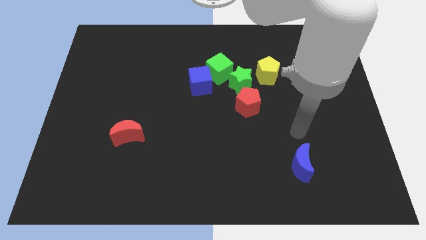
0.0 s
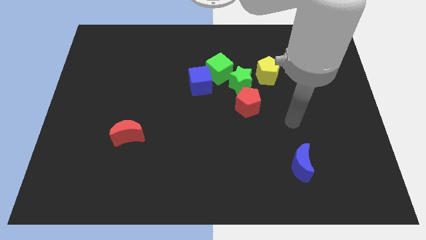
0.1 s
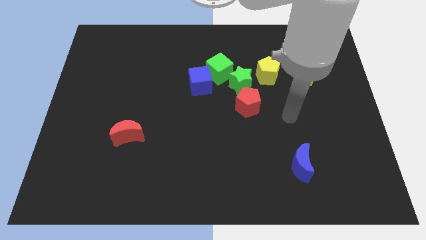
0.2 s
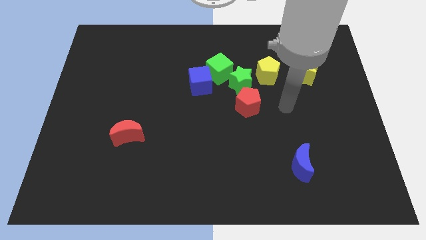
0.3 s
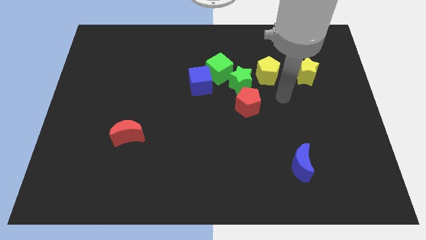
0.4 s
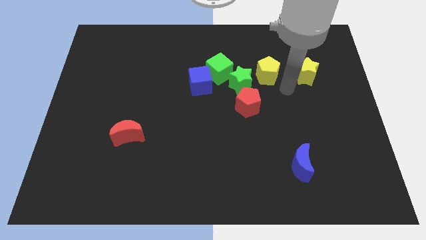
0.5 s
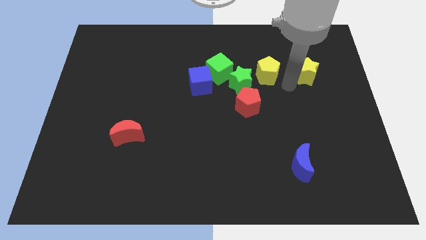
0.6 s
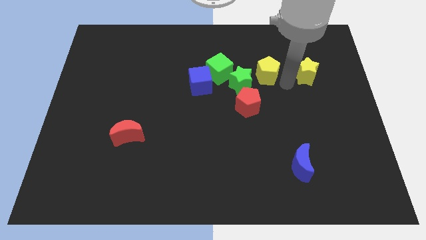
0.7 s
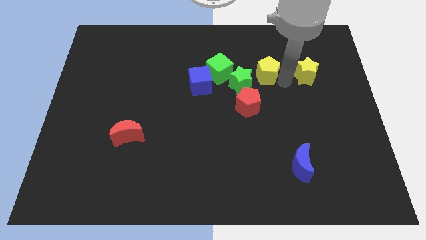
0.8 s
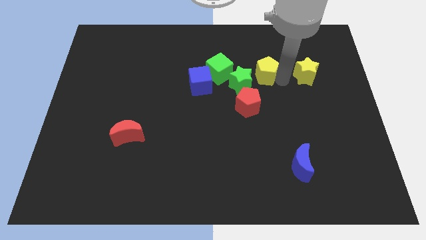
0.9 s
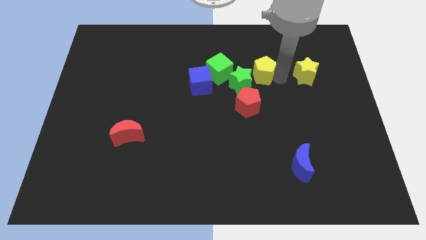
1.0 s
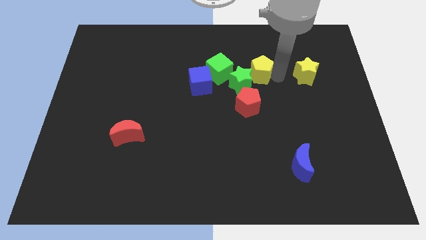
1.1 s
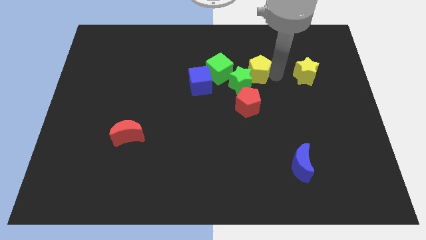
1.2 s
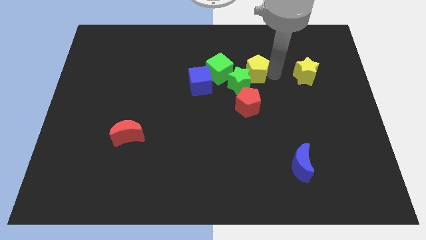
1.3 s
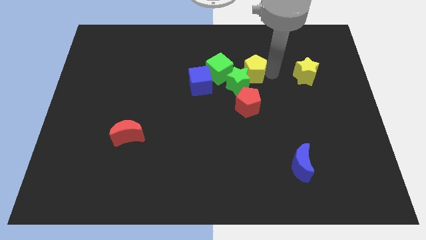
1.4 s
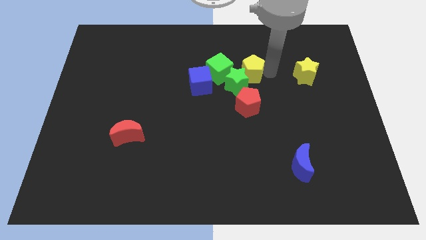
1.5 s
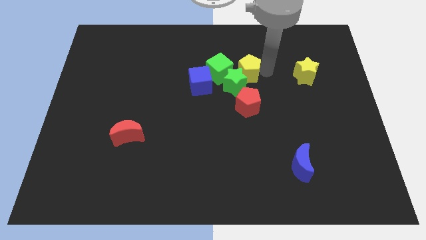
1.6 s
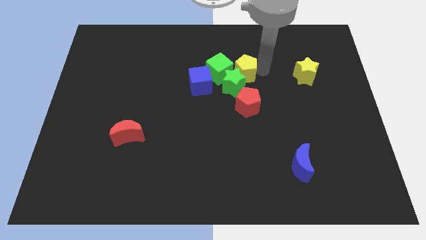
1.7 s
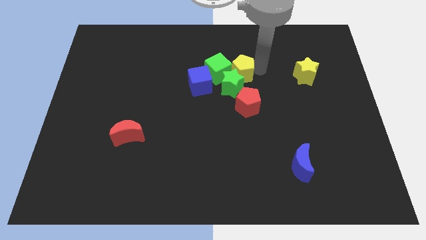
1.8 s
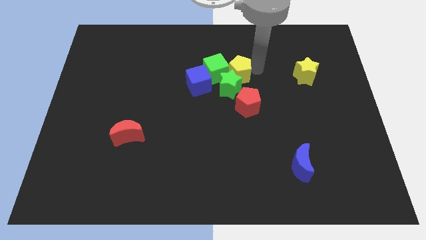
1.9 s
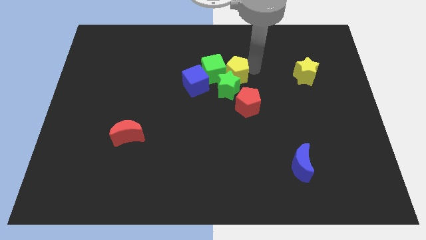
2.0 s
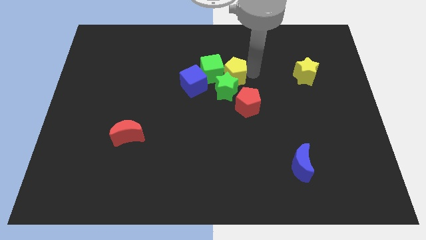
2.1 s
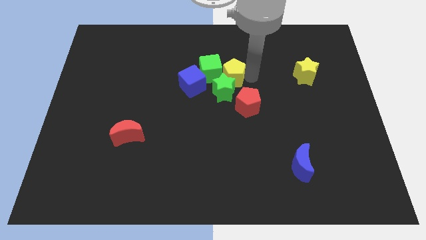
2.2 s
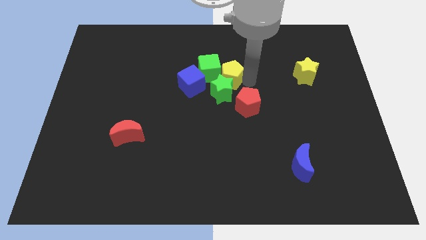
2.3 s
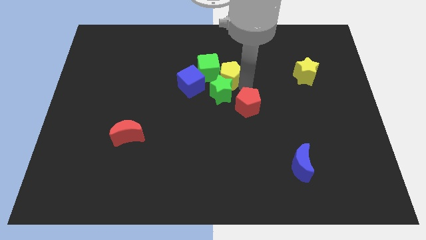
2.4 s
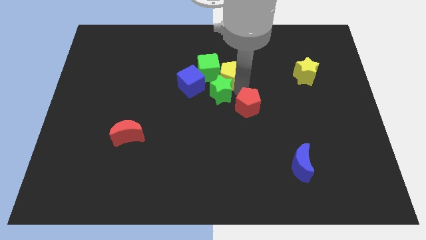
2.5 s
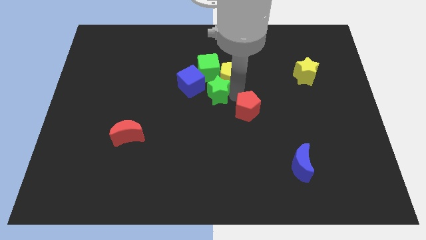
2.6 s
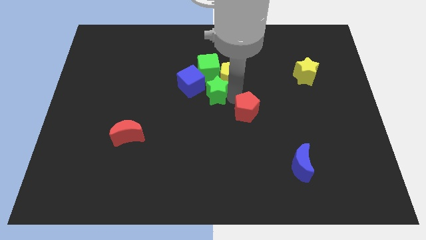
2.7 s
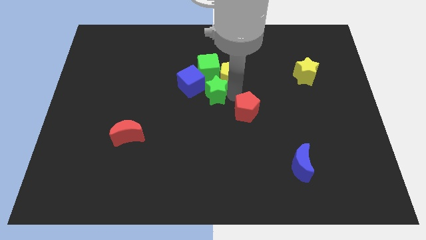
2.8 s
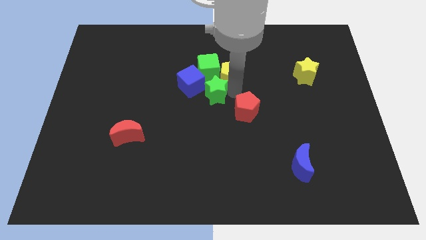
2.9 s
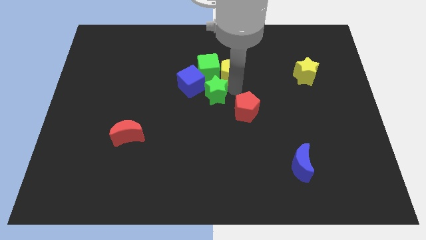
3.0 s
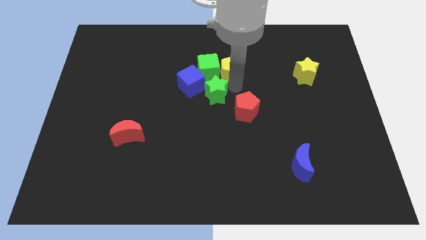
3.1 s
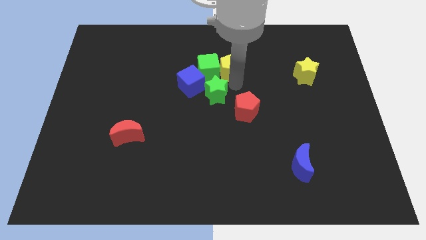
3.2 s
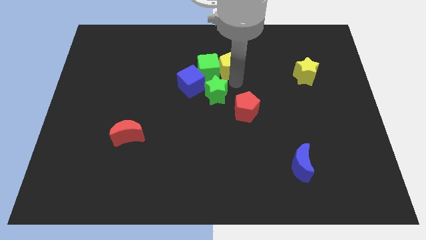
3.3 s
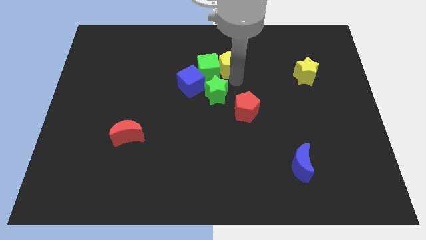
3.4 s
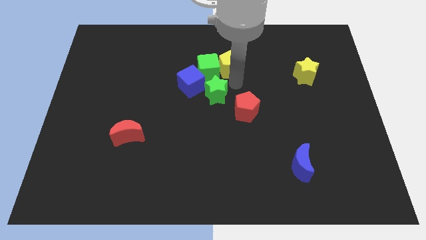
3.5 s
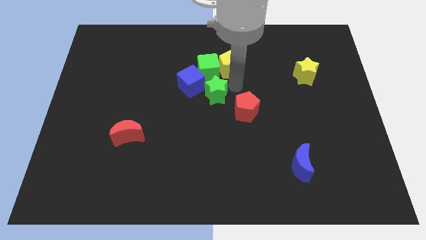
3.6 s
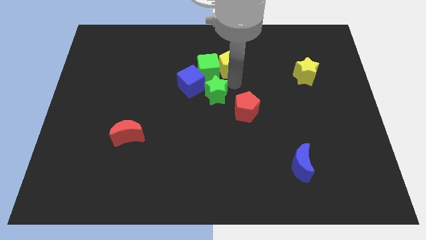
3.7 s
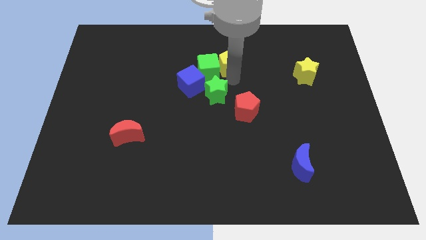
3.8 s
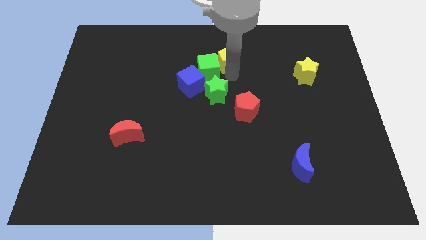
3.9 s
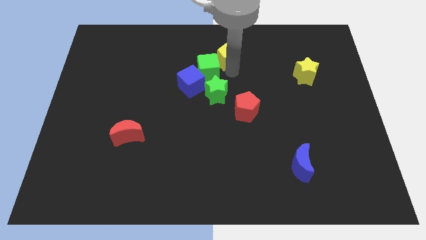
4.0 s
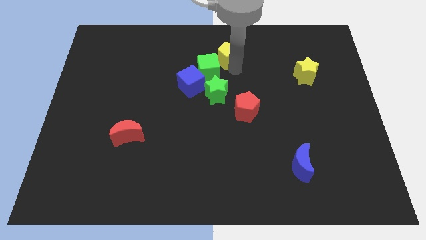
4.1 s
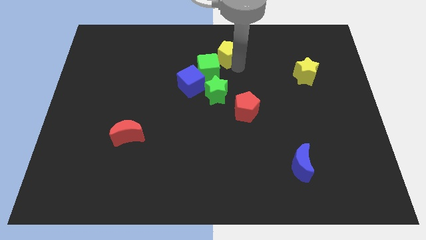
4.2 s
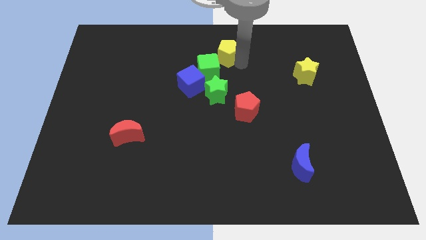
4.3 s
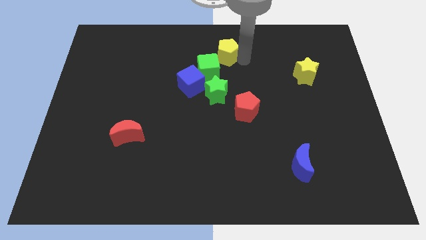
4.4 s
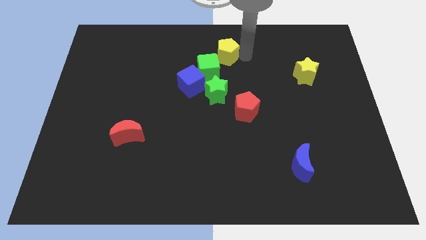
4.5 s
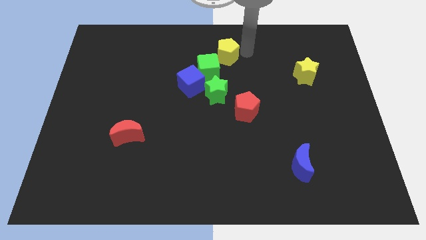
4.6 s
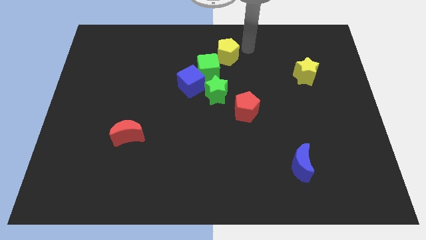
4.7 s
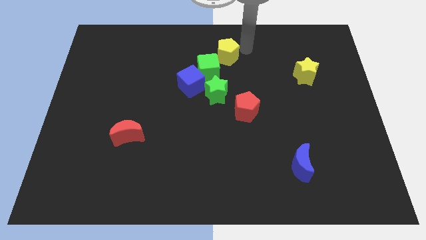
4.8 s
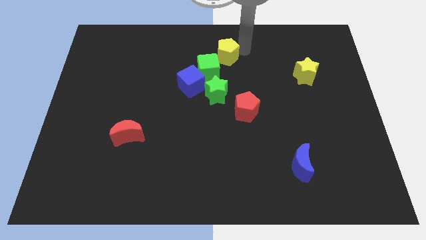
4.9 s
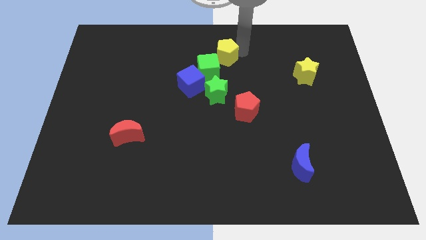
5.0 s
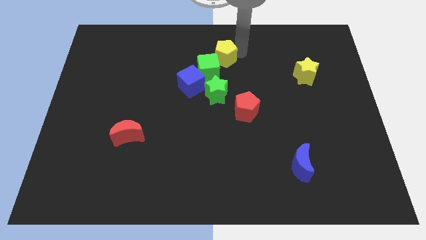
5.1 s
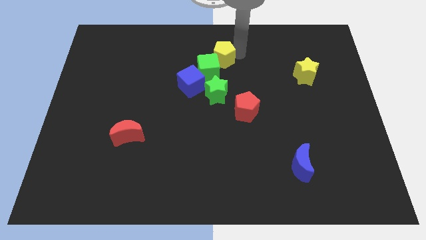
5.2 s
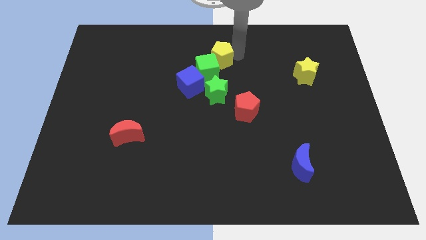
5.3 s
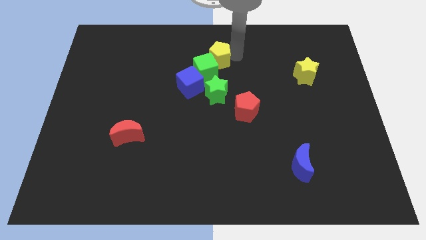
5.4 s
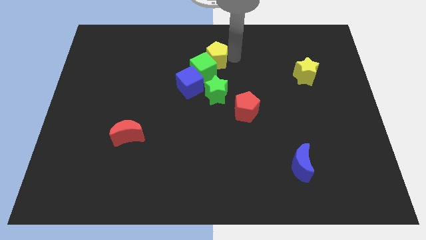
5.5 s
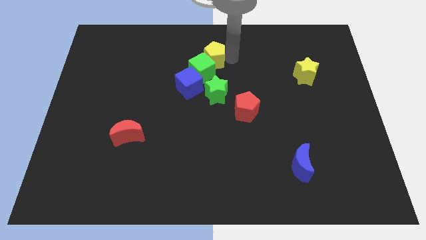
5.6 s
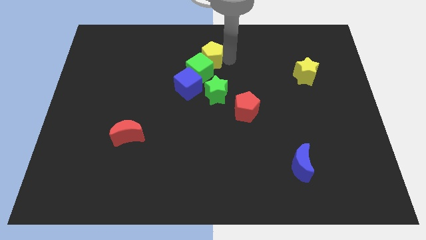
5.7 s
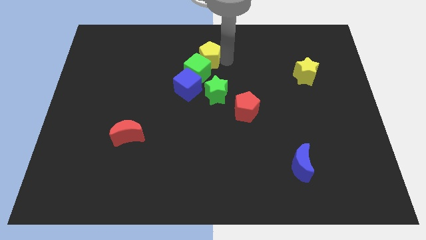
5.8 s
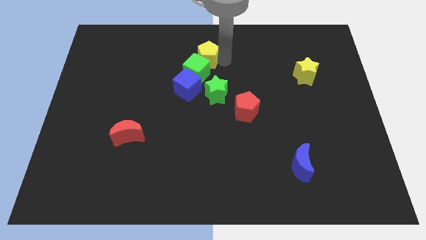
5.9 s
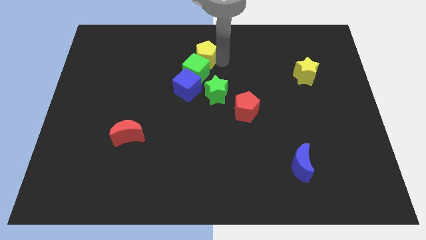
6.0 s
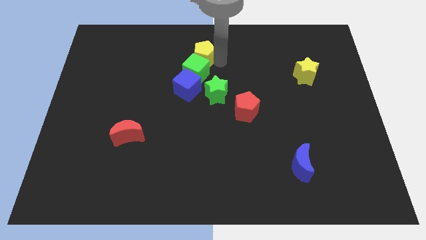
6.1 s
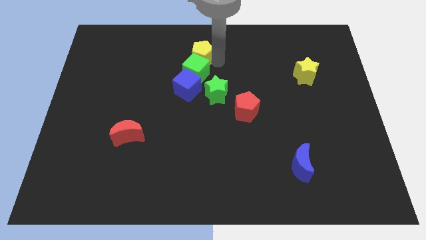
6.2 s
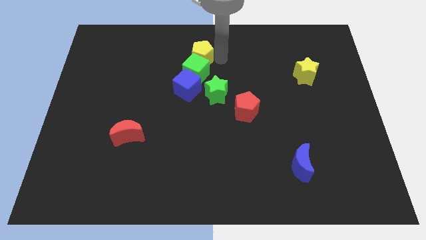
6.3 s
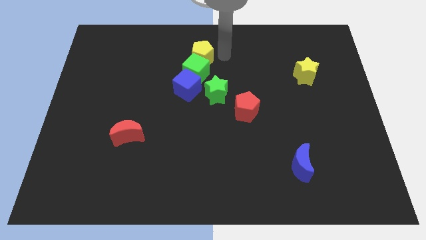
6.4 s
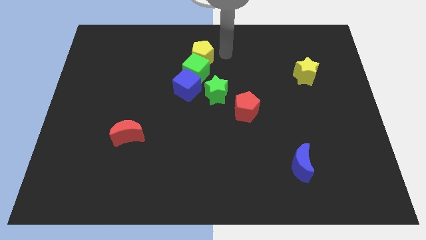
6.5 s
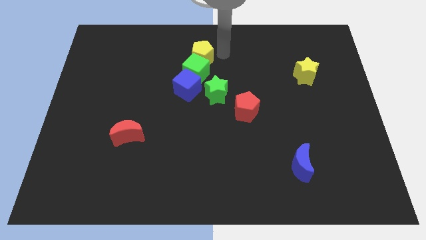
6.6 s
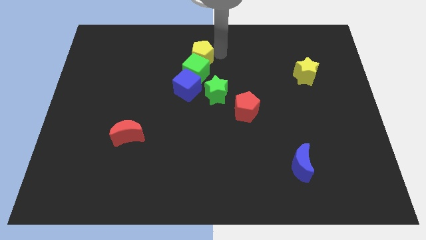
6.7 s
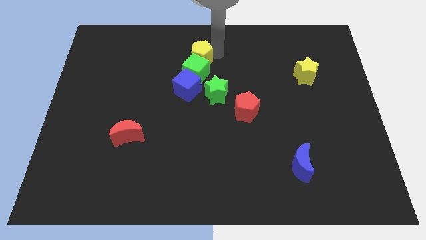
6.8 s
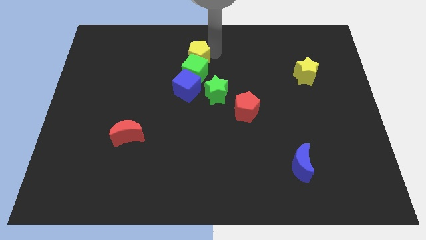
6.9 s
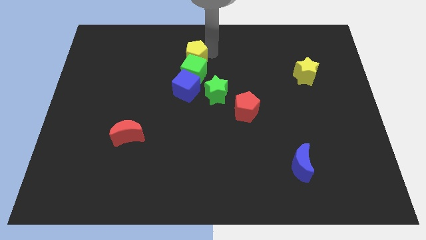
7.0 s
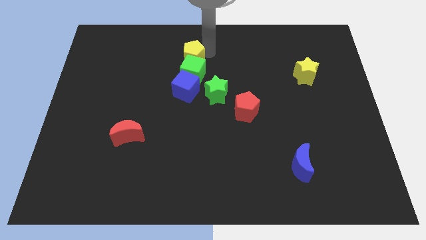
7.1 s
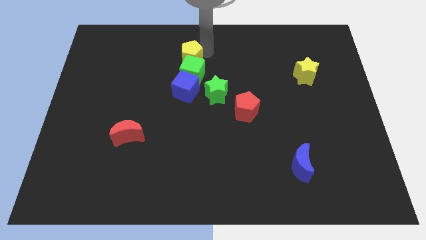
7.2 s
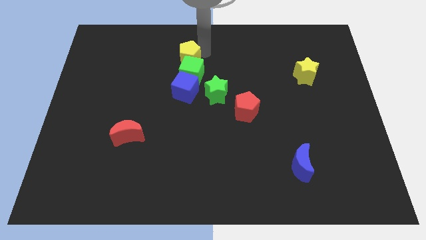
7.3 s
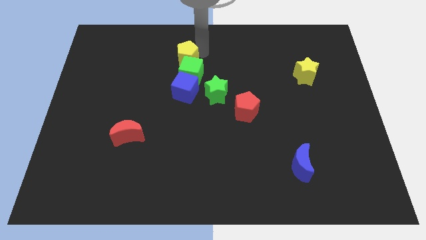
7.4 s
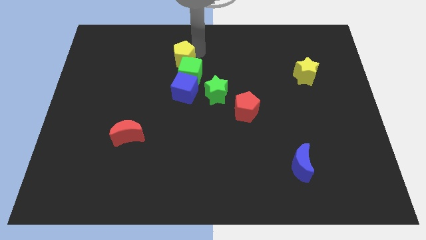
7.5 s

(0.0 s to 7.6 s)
slide the yellow pentagon to the left

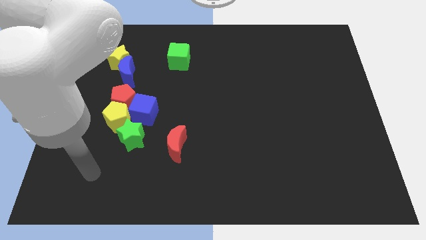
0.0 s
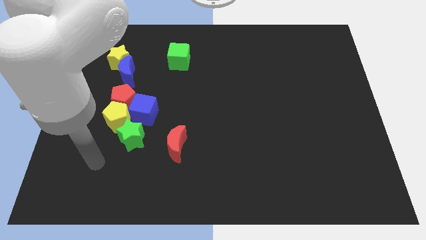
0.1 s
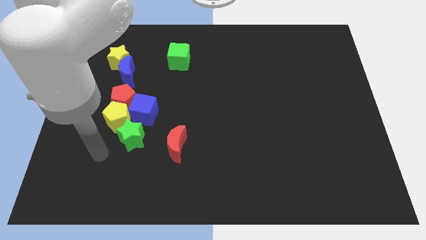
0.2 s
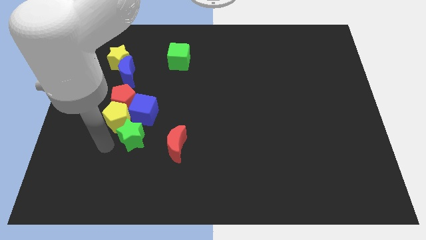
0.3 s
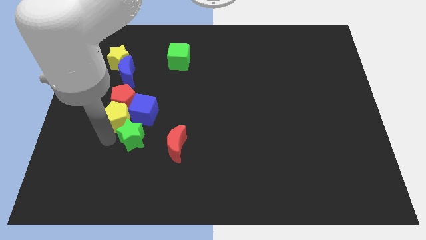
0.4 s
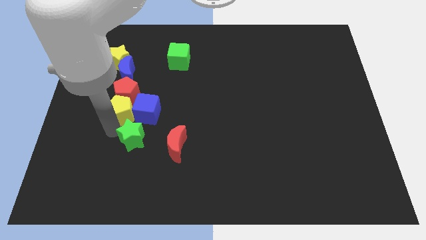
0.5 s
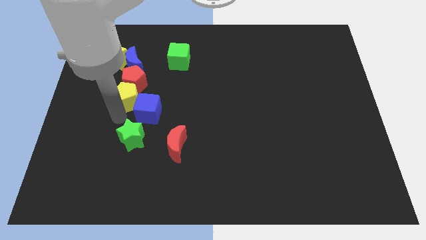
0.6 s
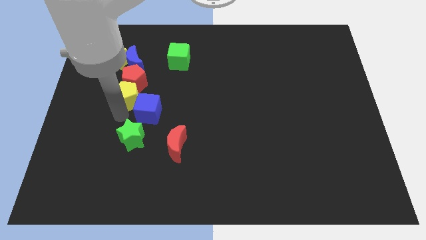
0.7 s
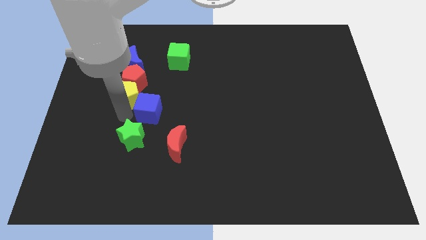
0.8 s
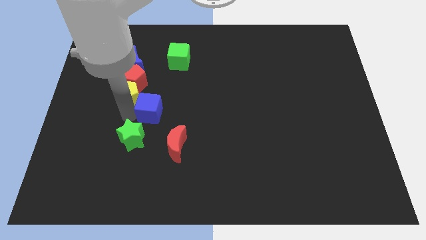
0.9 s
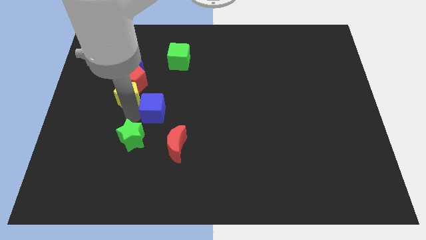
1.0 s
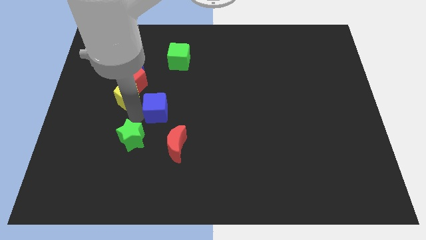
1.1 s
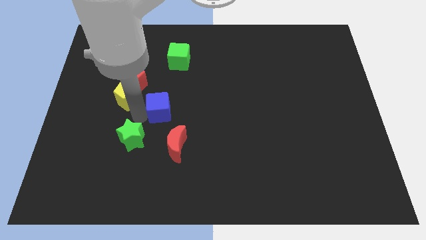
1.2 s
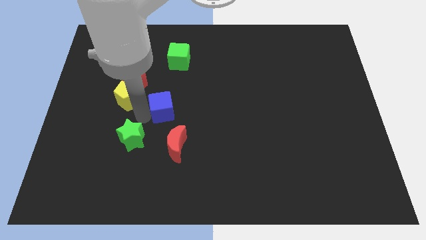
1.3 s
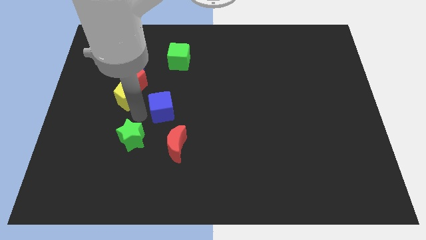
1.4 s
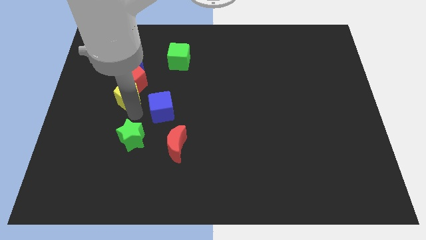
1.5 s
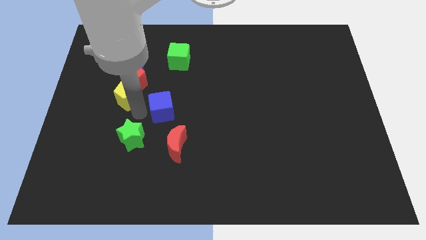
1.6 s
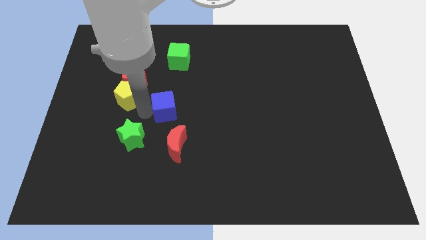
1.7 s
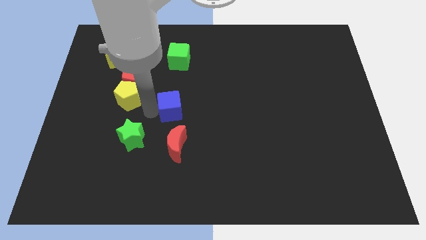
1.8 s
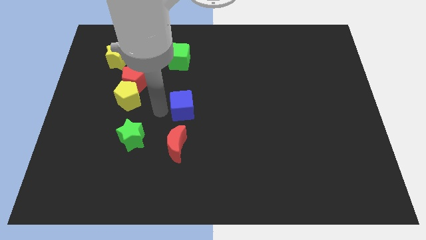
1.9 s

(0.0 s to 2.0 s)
move the blue cube a bit to the right
